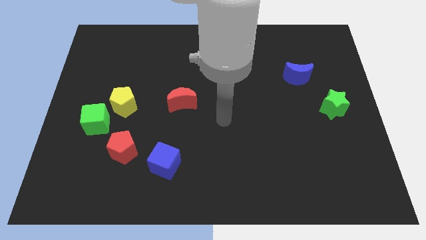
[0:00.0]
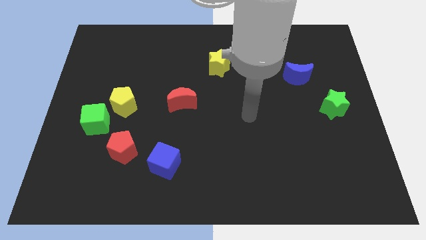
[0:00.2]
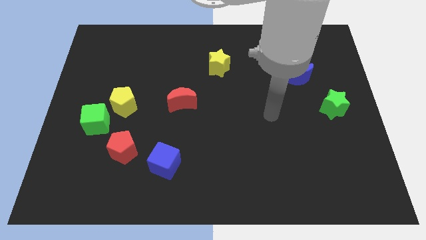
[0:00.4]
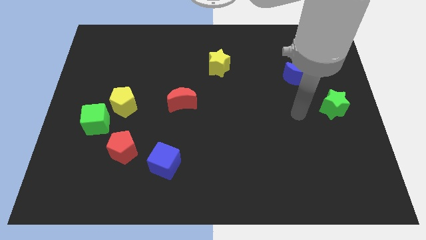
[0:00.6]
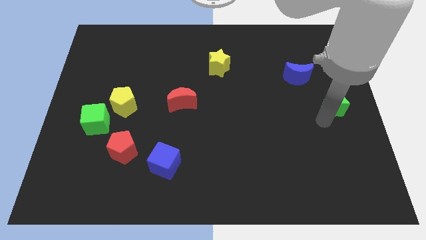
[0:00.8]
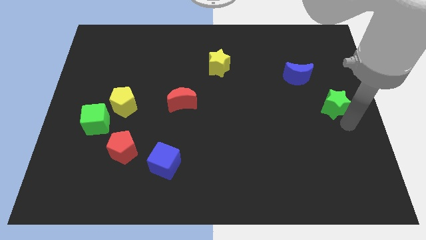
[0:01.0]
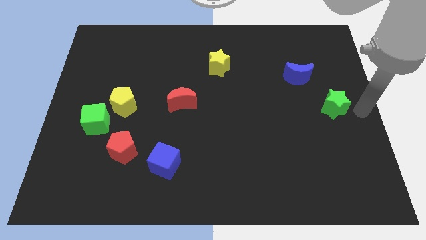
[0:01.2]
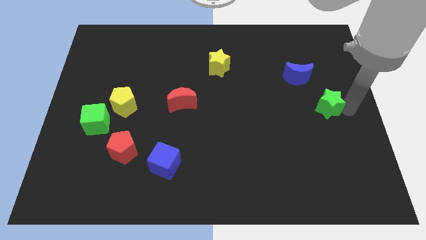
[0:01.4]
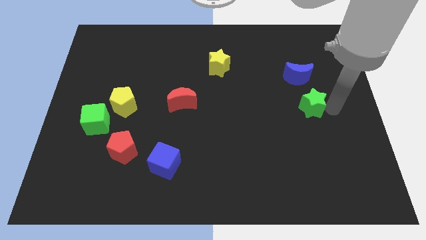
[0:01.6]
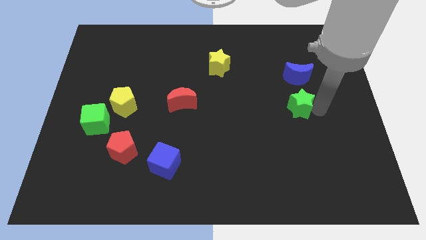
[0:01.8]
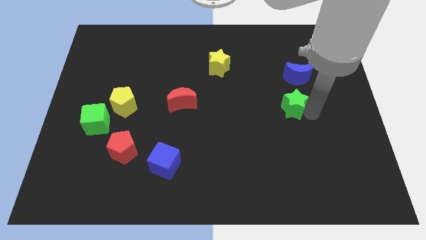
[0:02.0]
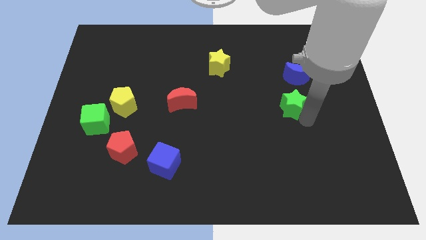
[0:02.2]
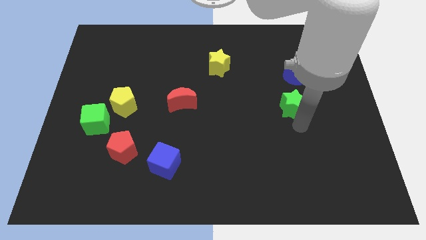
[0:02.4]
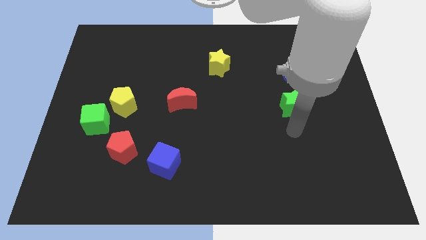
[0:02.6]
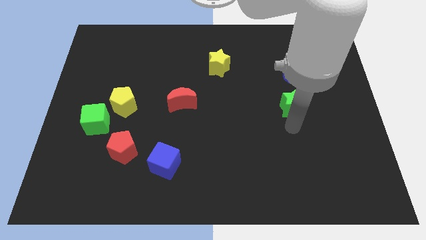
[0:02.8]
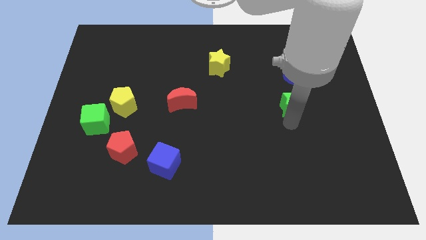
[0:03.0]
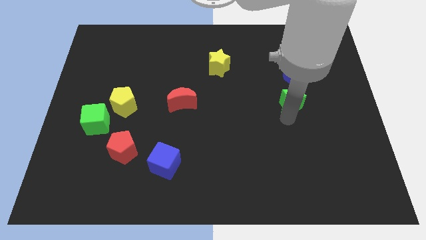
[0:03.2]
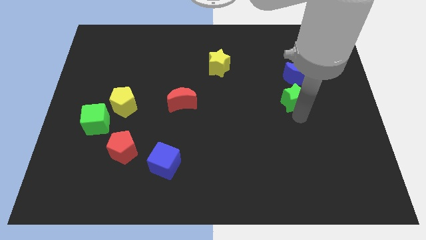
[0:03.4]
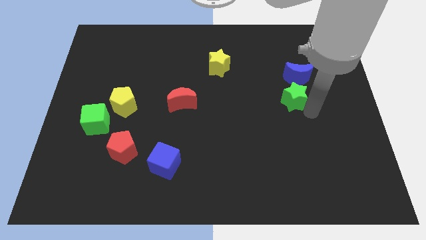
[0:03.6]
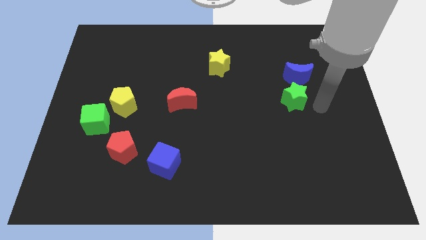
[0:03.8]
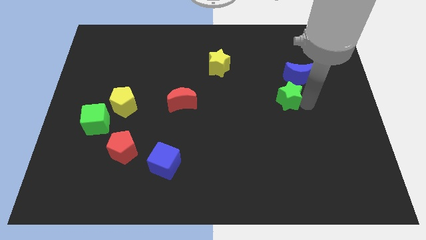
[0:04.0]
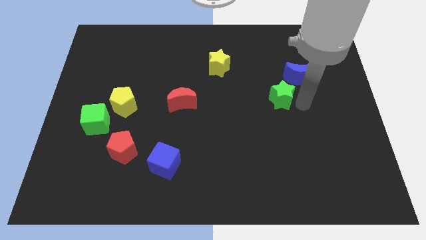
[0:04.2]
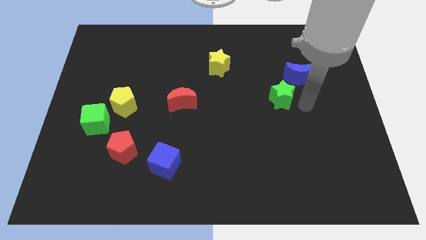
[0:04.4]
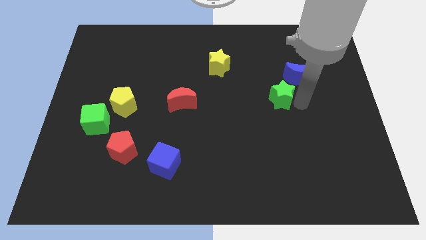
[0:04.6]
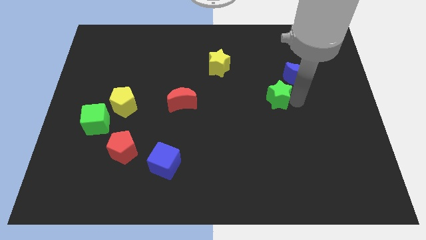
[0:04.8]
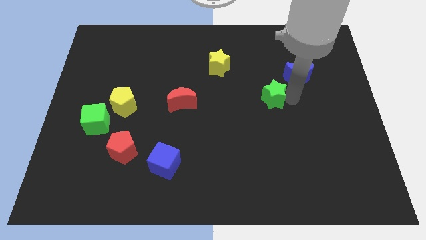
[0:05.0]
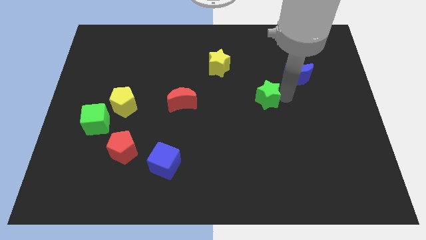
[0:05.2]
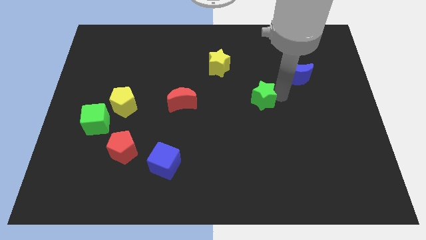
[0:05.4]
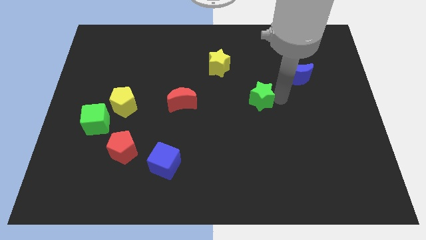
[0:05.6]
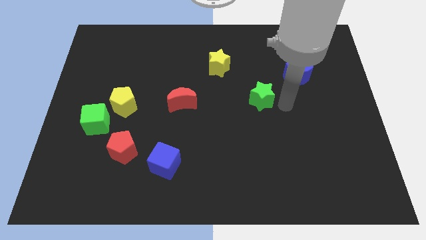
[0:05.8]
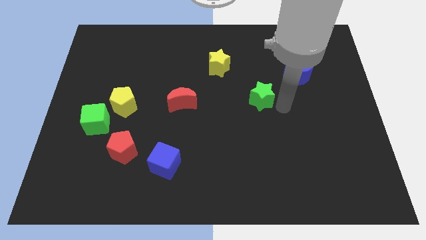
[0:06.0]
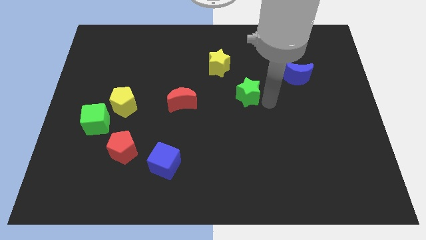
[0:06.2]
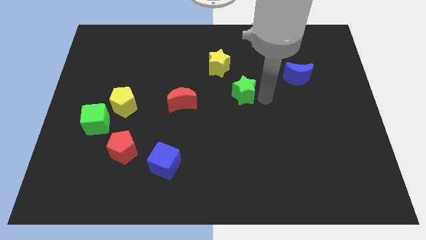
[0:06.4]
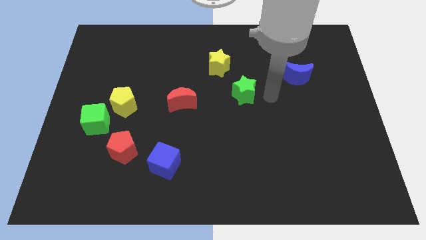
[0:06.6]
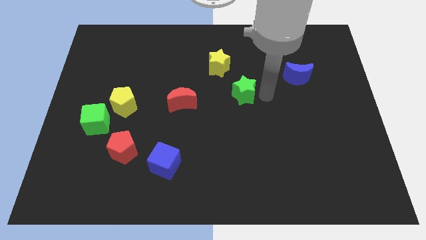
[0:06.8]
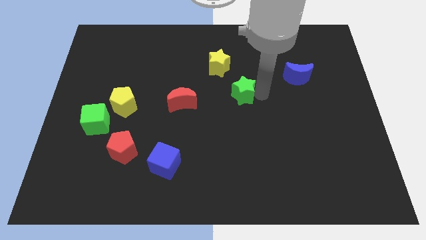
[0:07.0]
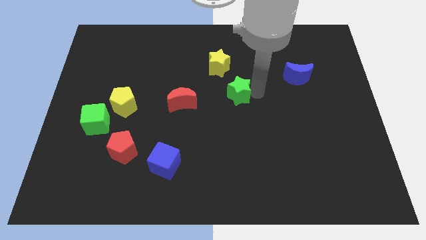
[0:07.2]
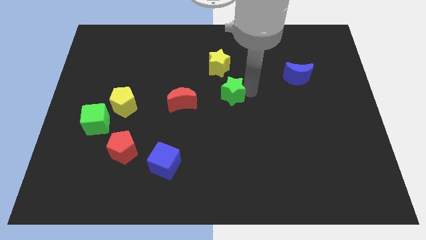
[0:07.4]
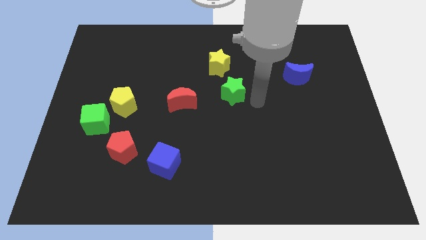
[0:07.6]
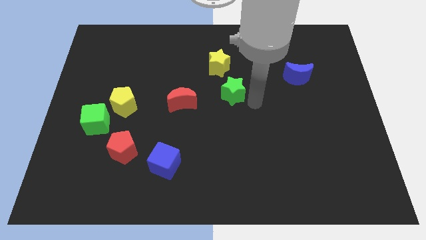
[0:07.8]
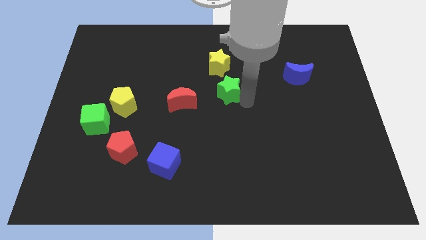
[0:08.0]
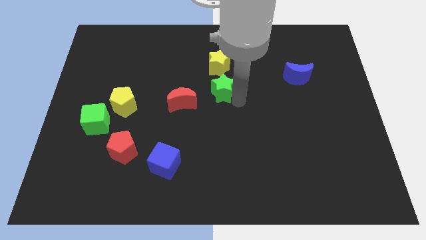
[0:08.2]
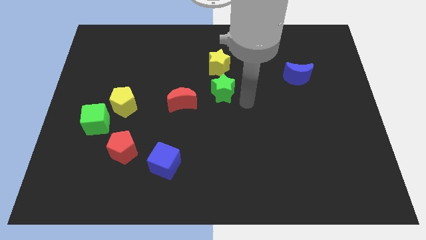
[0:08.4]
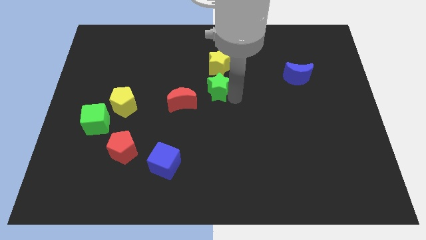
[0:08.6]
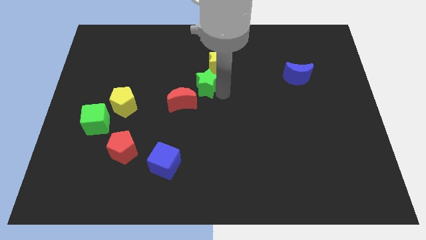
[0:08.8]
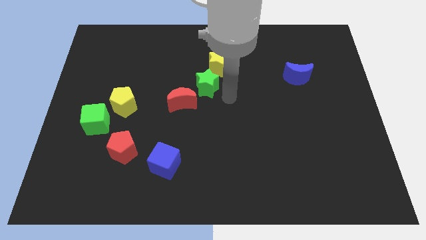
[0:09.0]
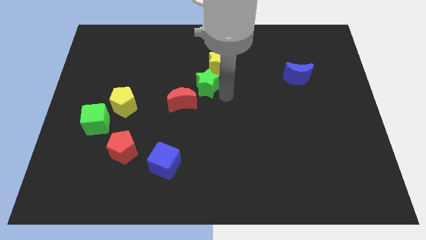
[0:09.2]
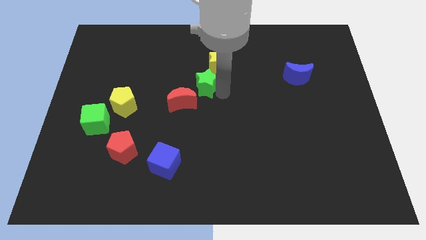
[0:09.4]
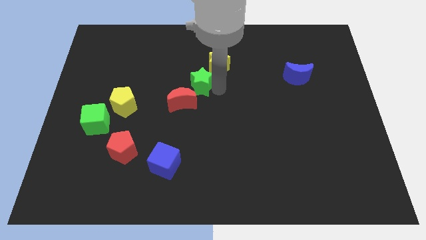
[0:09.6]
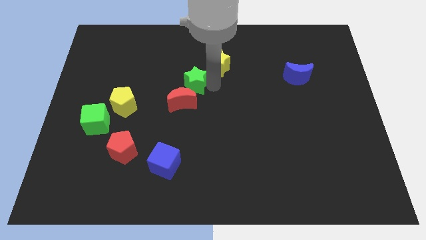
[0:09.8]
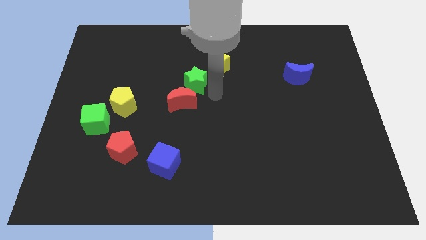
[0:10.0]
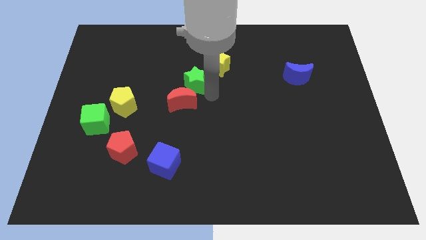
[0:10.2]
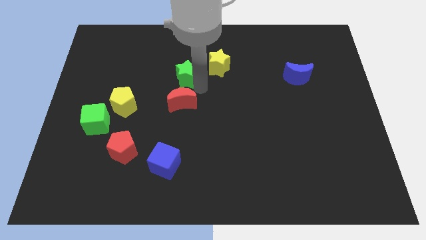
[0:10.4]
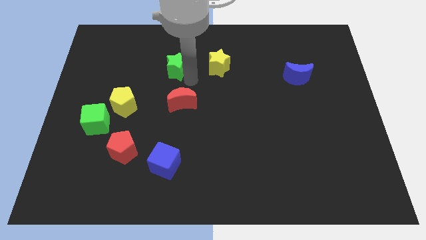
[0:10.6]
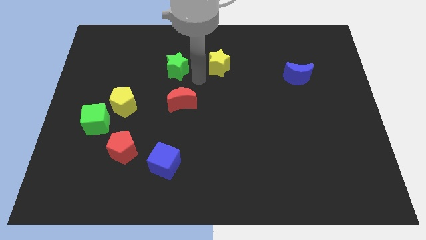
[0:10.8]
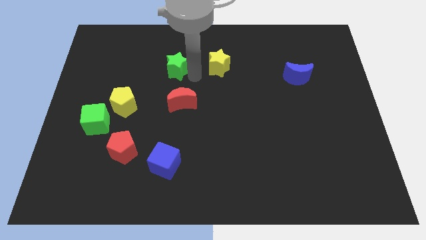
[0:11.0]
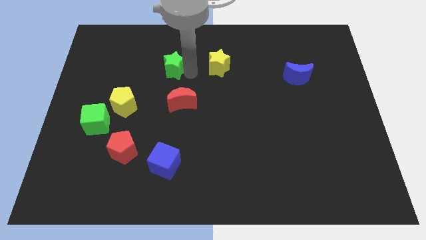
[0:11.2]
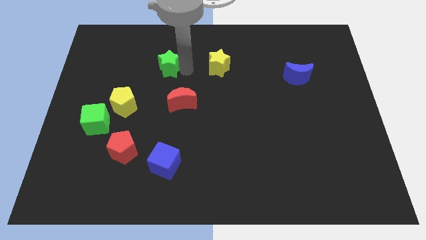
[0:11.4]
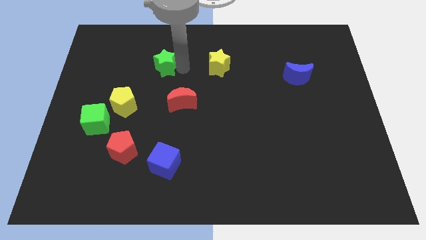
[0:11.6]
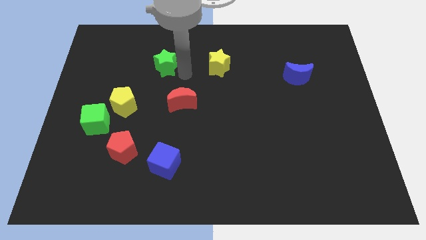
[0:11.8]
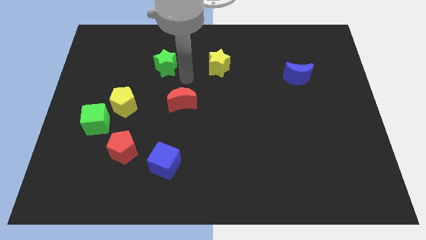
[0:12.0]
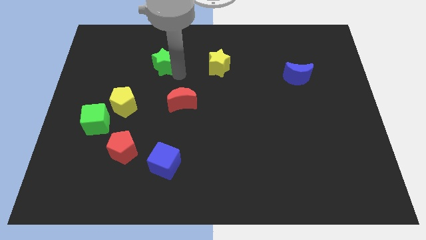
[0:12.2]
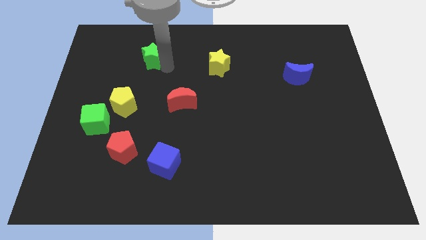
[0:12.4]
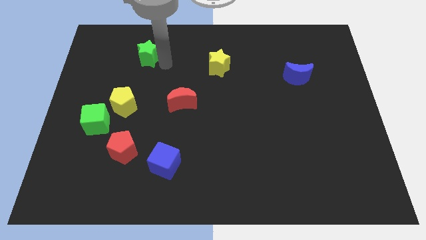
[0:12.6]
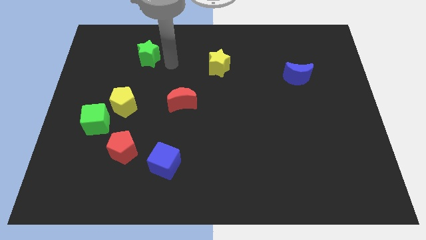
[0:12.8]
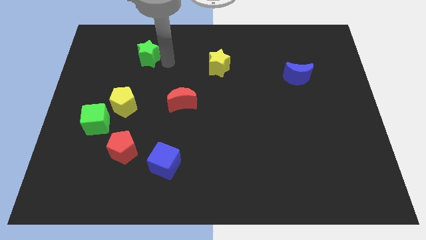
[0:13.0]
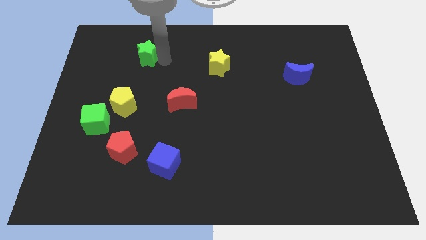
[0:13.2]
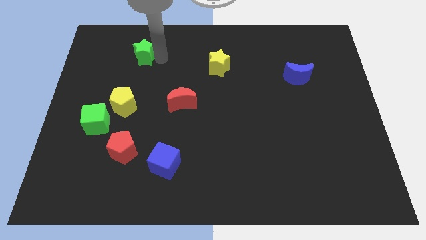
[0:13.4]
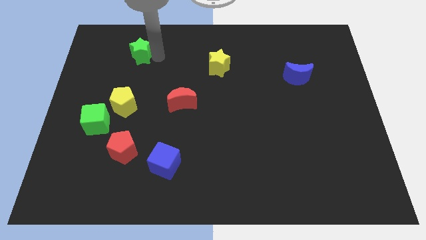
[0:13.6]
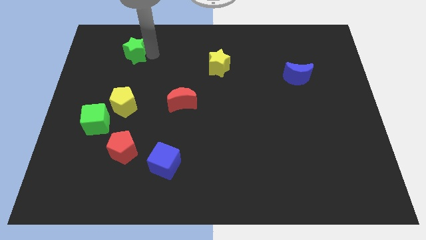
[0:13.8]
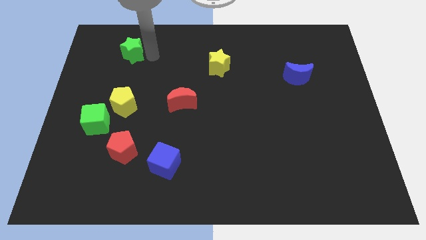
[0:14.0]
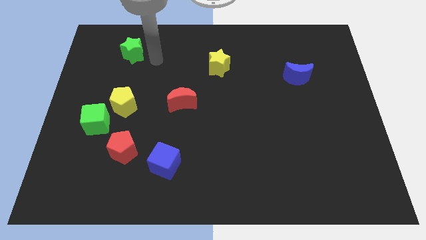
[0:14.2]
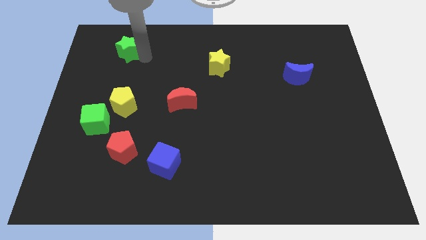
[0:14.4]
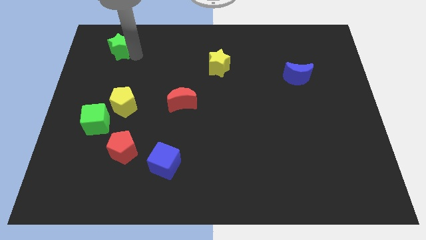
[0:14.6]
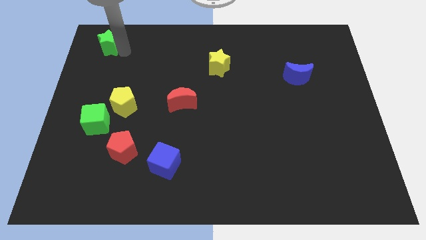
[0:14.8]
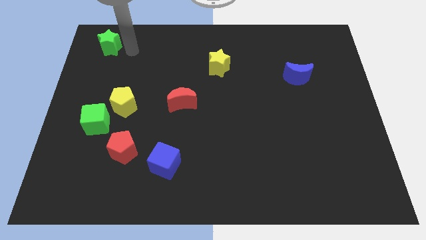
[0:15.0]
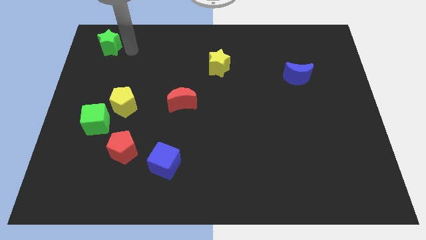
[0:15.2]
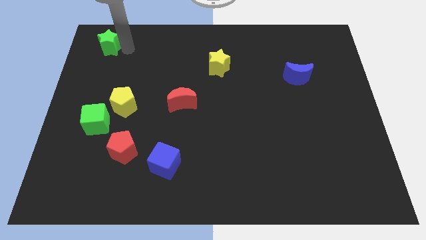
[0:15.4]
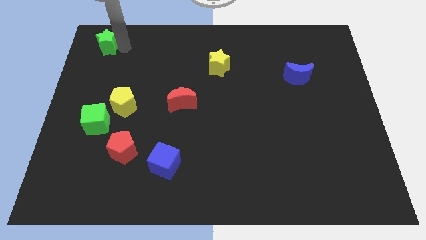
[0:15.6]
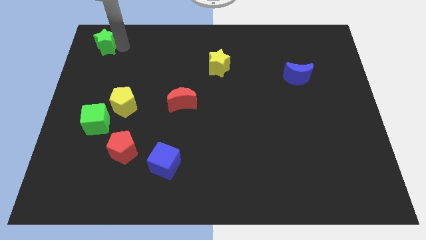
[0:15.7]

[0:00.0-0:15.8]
push the green star to the top left of the board
